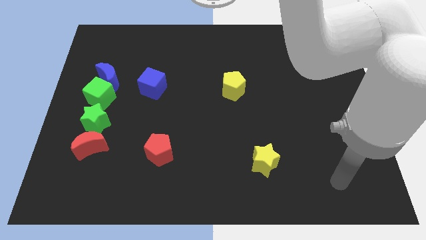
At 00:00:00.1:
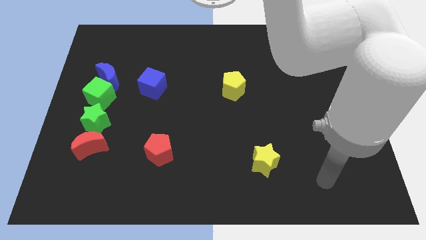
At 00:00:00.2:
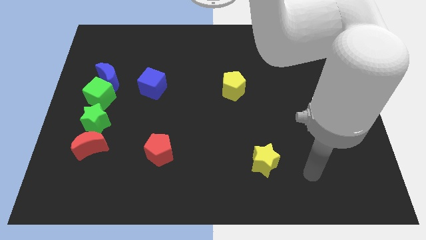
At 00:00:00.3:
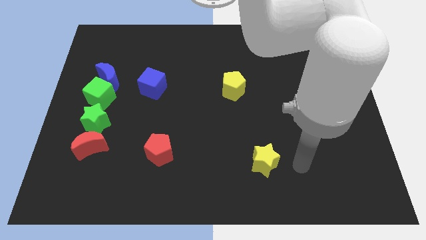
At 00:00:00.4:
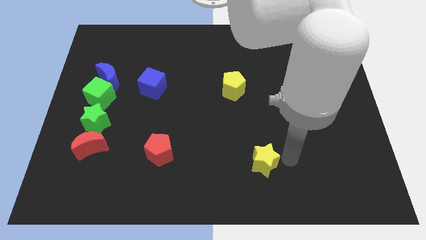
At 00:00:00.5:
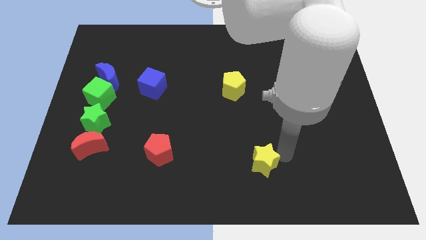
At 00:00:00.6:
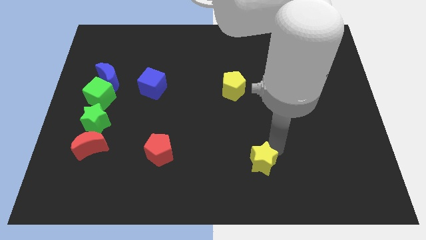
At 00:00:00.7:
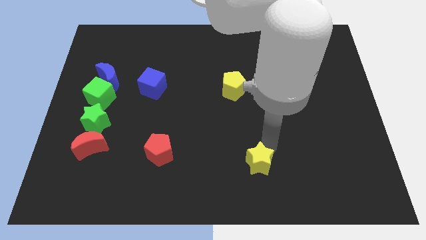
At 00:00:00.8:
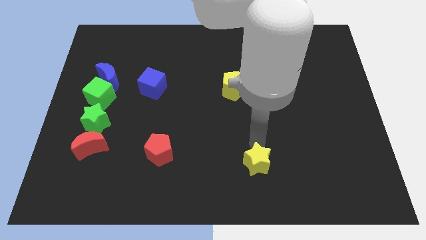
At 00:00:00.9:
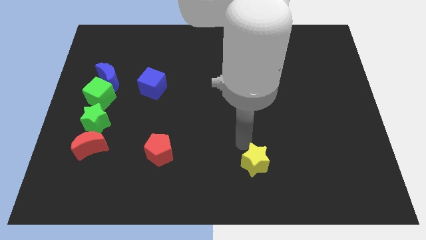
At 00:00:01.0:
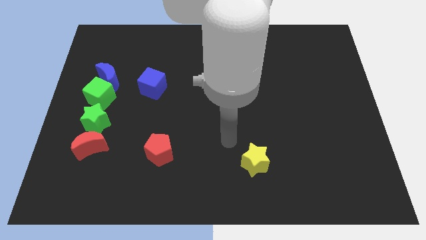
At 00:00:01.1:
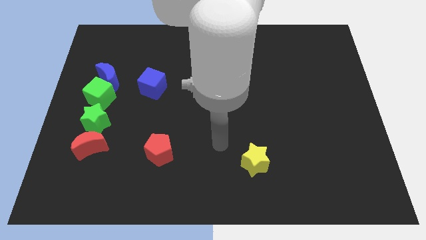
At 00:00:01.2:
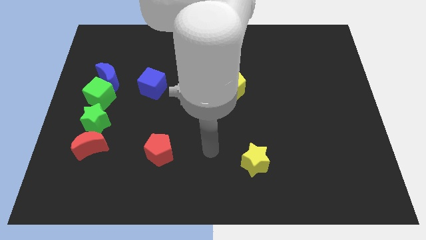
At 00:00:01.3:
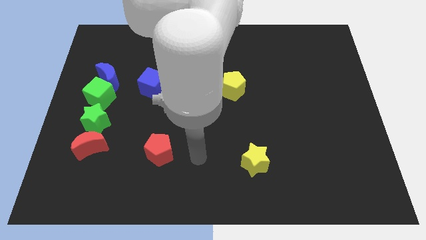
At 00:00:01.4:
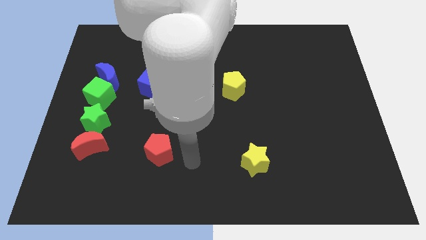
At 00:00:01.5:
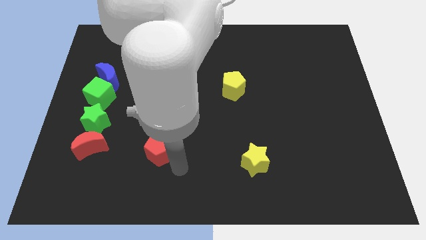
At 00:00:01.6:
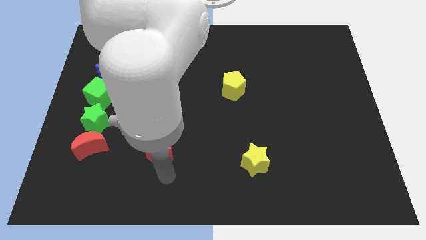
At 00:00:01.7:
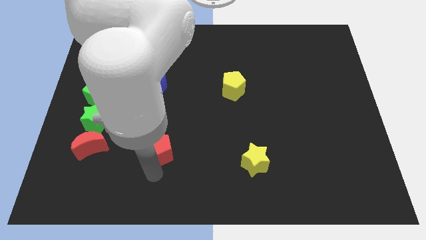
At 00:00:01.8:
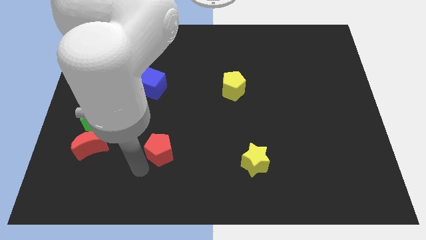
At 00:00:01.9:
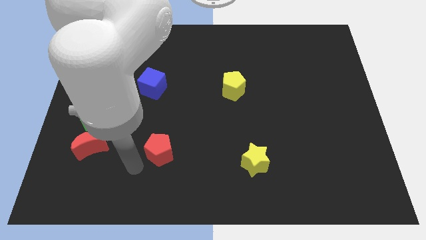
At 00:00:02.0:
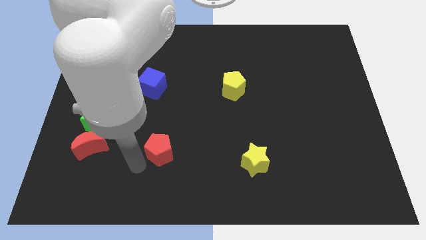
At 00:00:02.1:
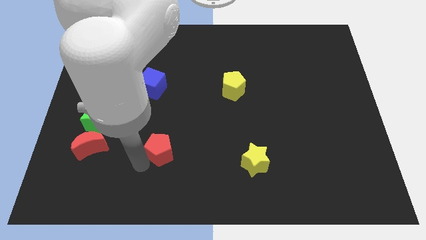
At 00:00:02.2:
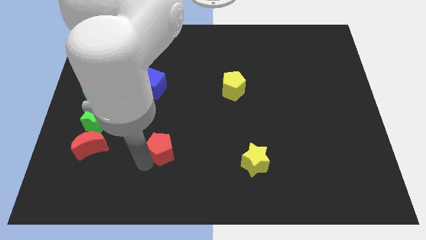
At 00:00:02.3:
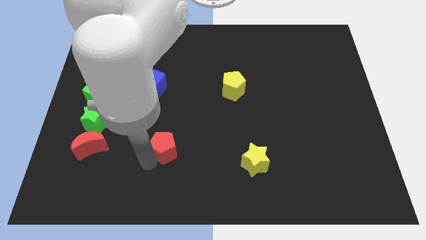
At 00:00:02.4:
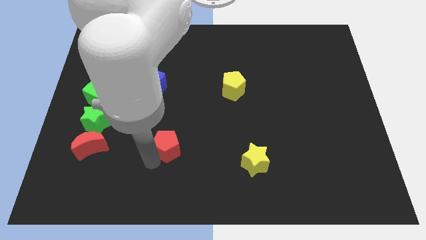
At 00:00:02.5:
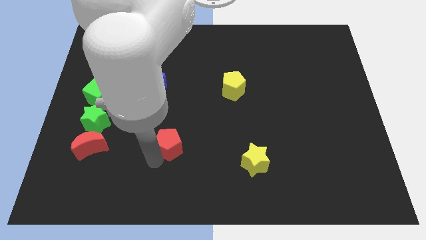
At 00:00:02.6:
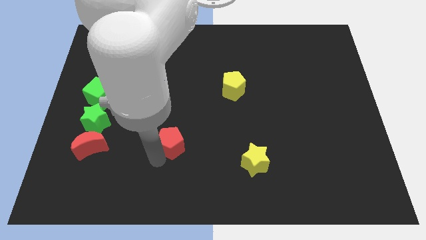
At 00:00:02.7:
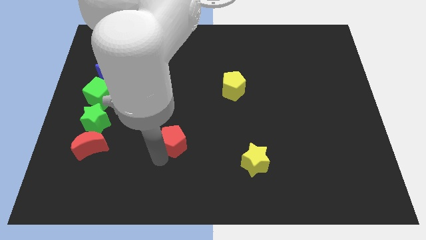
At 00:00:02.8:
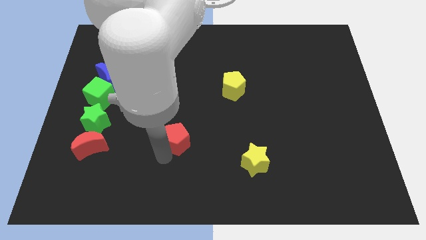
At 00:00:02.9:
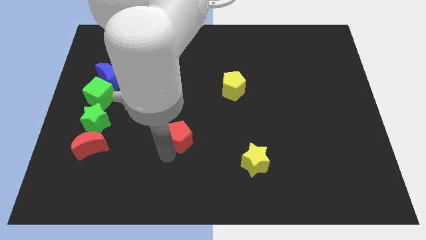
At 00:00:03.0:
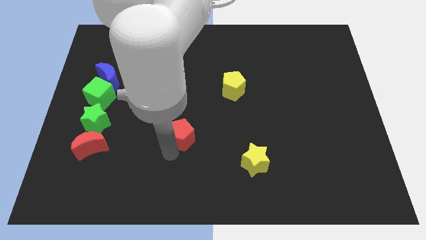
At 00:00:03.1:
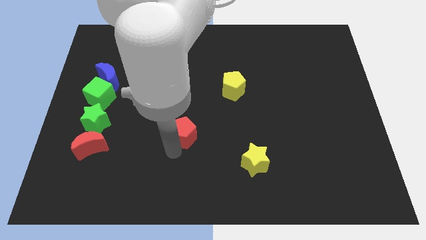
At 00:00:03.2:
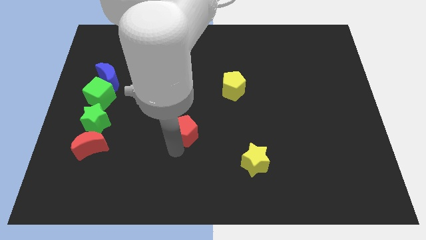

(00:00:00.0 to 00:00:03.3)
move the red pentagon a bit up and then to the right

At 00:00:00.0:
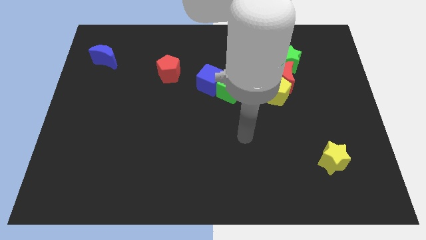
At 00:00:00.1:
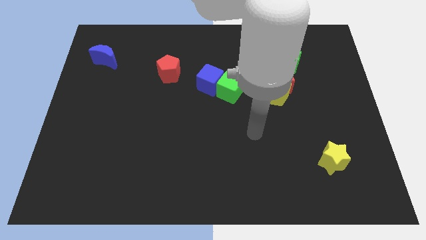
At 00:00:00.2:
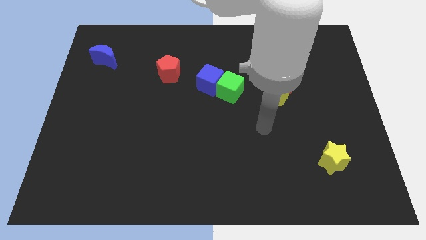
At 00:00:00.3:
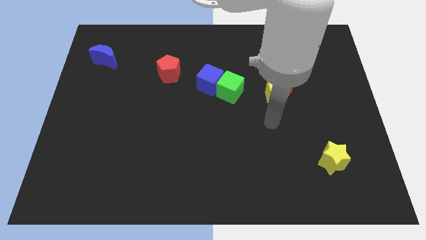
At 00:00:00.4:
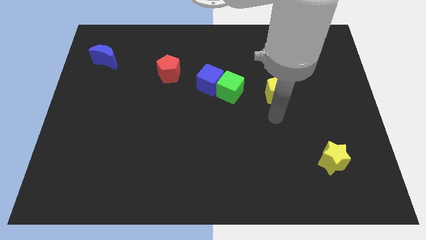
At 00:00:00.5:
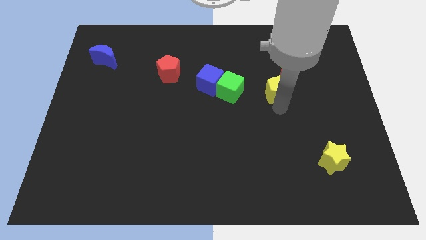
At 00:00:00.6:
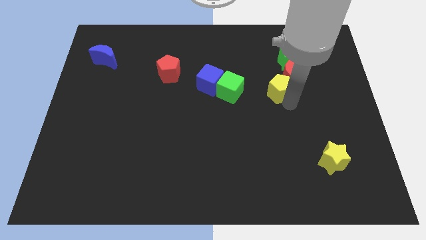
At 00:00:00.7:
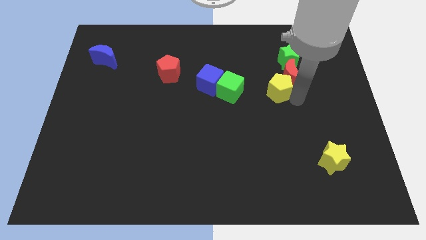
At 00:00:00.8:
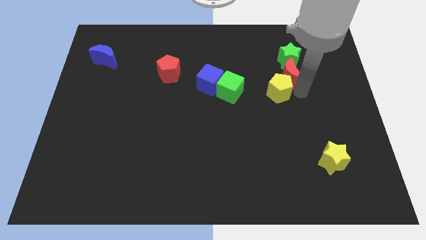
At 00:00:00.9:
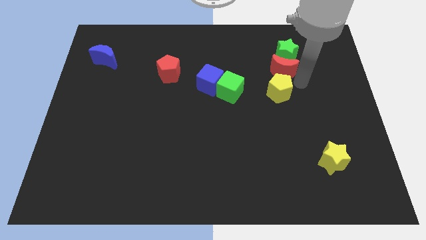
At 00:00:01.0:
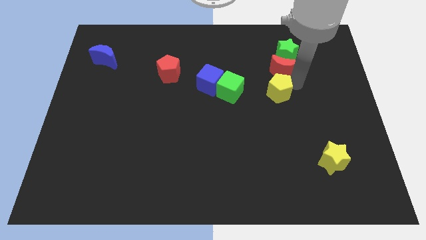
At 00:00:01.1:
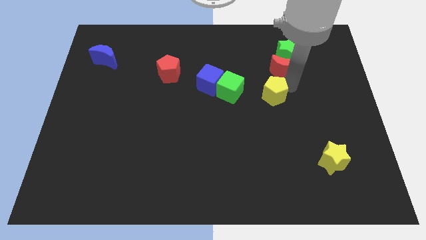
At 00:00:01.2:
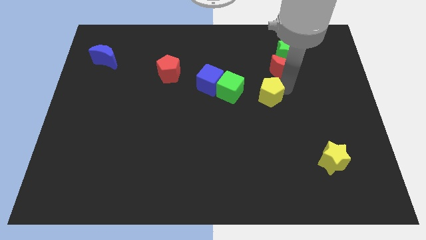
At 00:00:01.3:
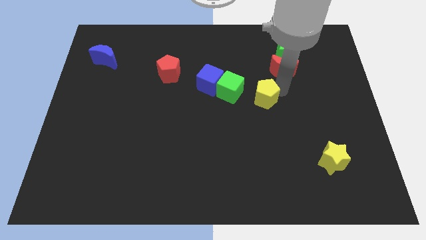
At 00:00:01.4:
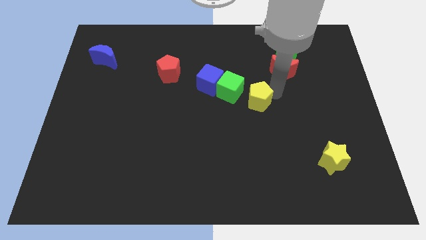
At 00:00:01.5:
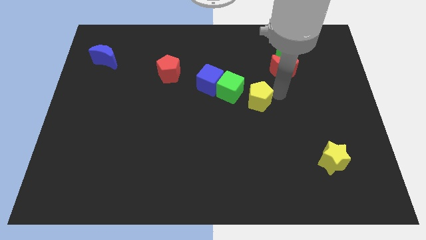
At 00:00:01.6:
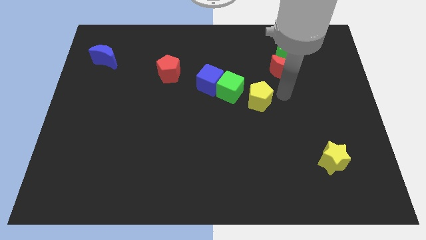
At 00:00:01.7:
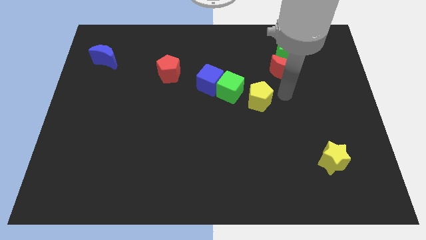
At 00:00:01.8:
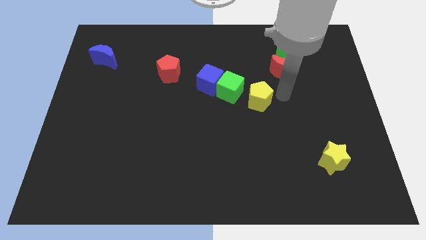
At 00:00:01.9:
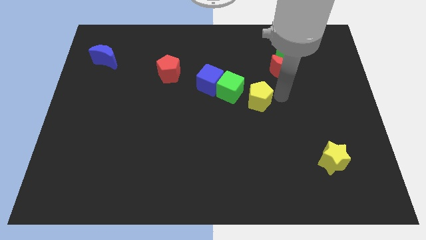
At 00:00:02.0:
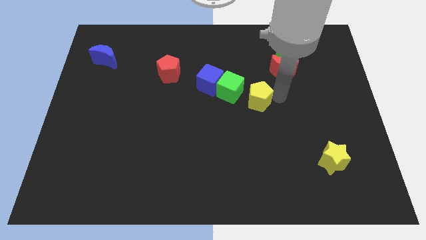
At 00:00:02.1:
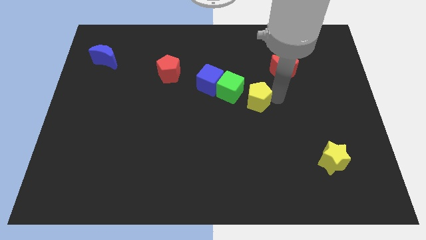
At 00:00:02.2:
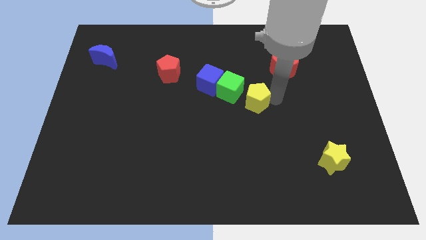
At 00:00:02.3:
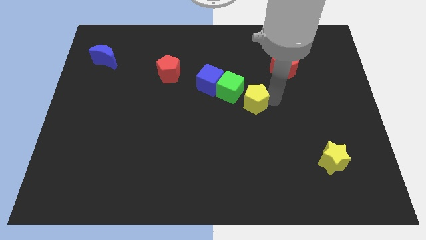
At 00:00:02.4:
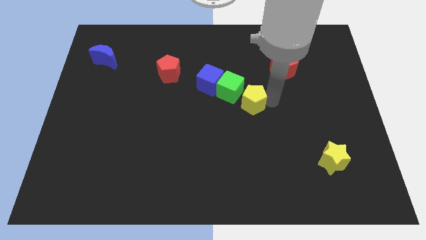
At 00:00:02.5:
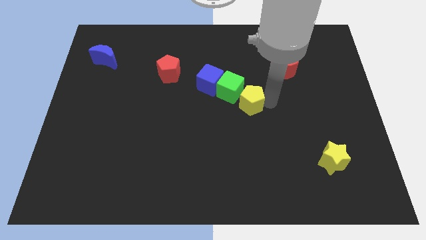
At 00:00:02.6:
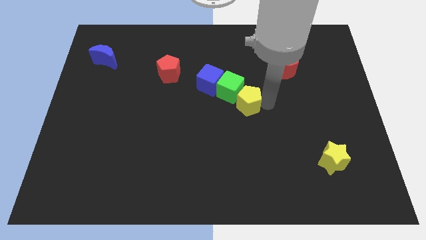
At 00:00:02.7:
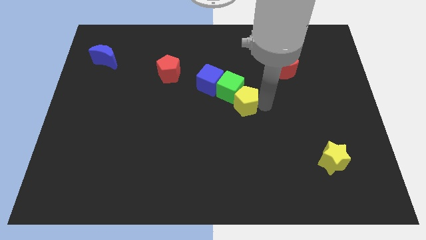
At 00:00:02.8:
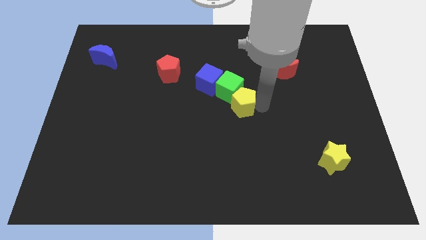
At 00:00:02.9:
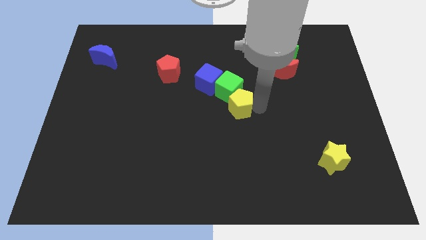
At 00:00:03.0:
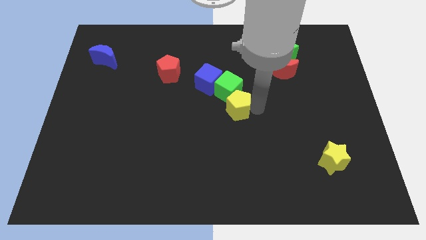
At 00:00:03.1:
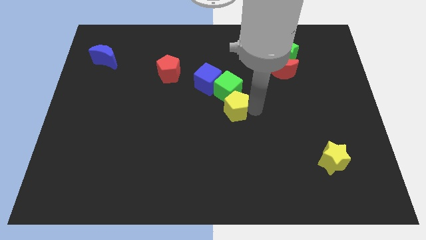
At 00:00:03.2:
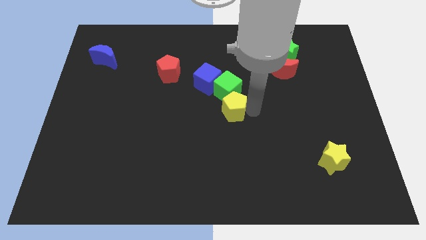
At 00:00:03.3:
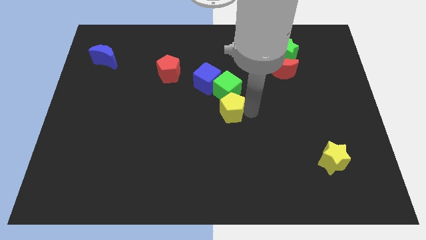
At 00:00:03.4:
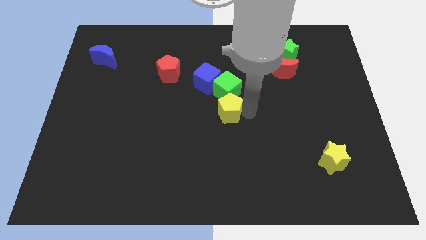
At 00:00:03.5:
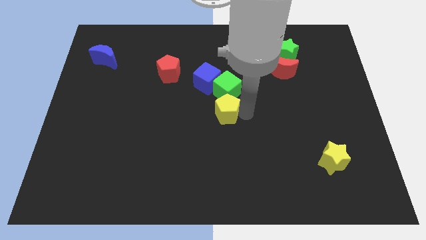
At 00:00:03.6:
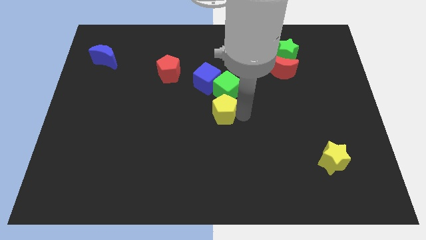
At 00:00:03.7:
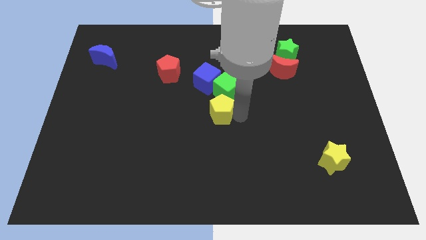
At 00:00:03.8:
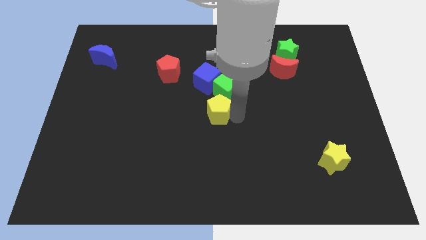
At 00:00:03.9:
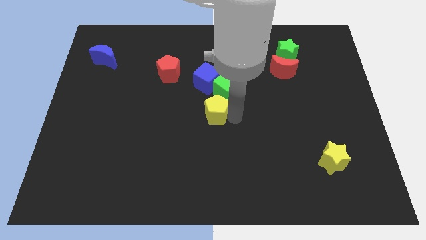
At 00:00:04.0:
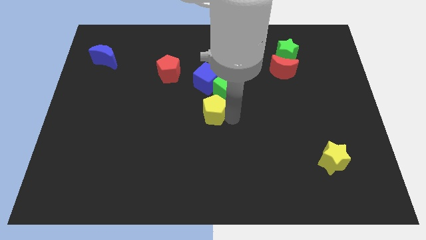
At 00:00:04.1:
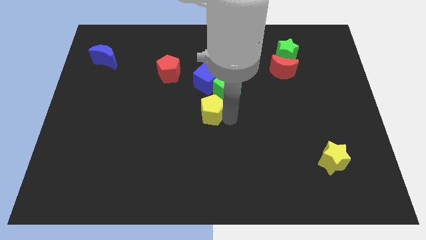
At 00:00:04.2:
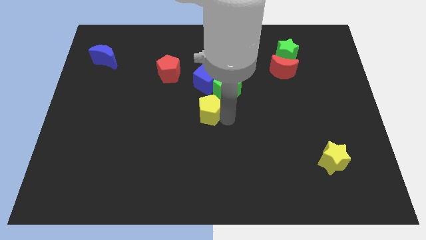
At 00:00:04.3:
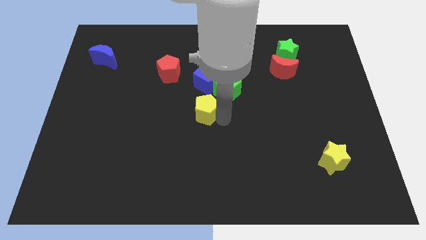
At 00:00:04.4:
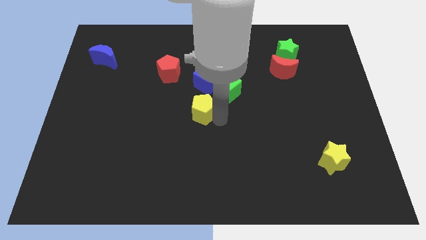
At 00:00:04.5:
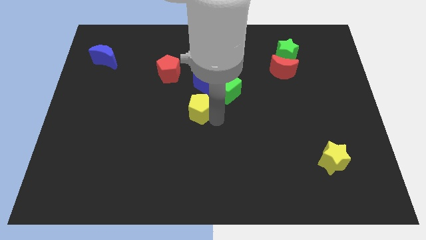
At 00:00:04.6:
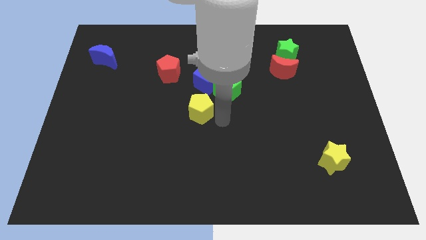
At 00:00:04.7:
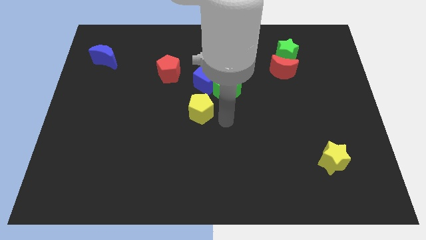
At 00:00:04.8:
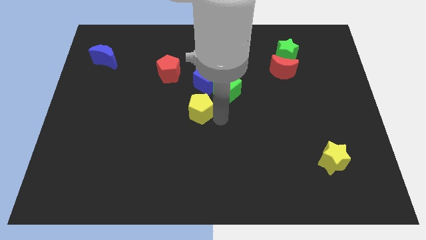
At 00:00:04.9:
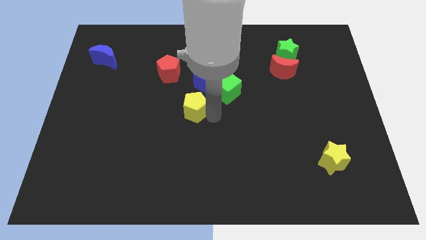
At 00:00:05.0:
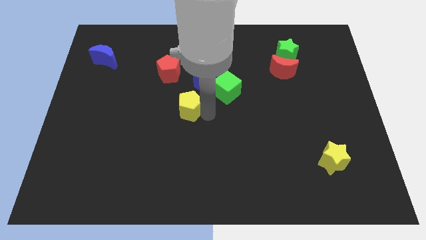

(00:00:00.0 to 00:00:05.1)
push the yellow pentagon to the left
